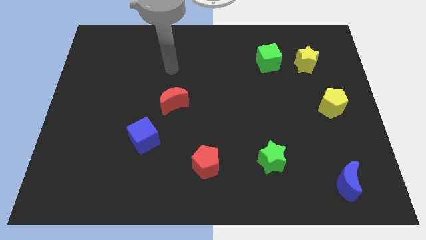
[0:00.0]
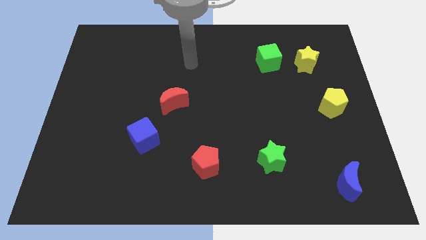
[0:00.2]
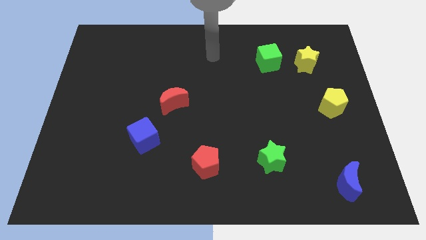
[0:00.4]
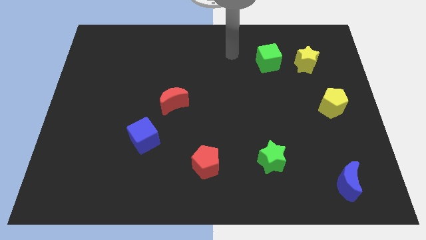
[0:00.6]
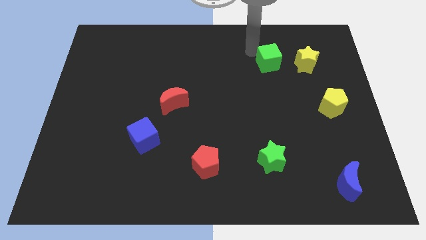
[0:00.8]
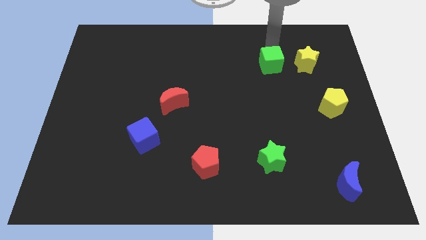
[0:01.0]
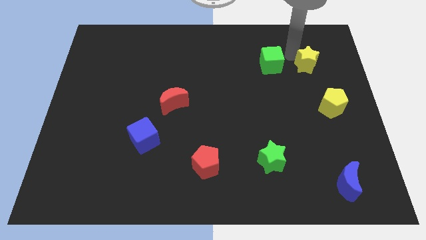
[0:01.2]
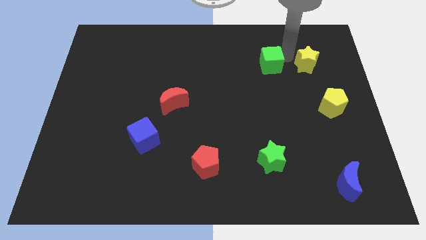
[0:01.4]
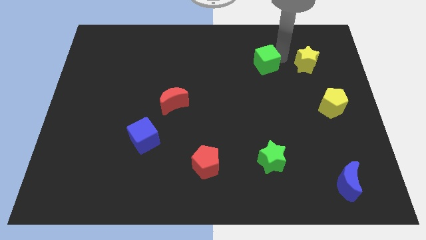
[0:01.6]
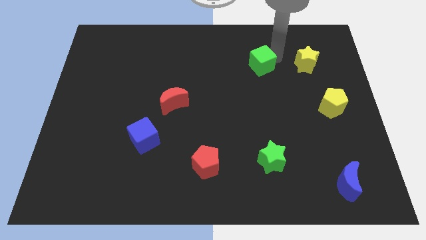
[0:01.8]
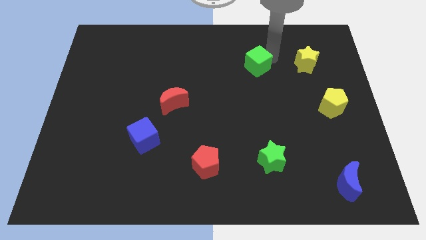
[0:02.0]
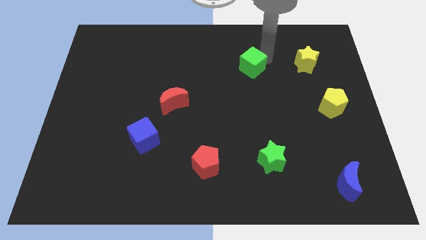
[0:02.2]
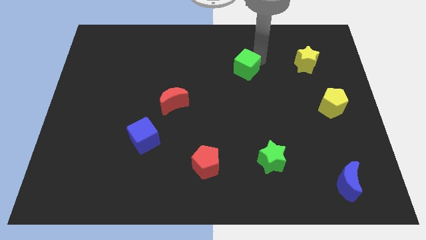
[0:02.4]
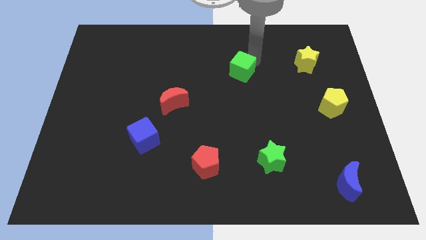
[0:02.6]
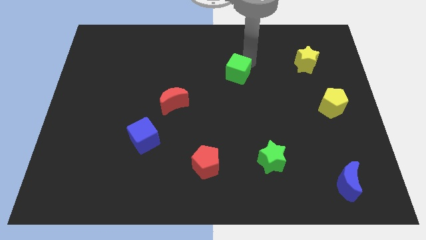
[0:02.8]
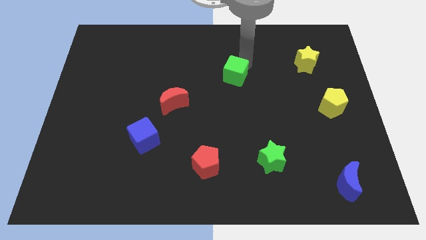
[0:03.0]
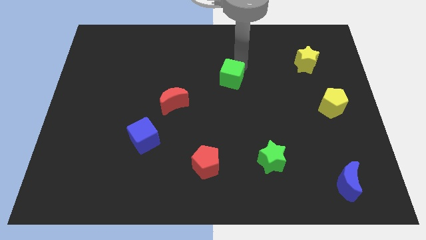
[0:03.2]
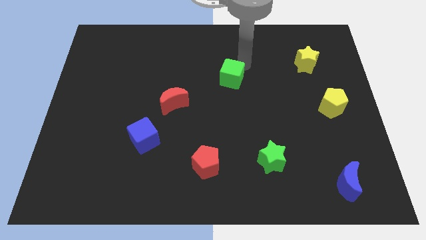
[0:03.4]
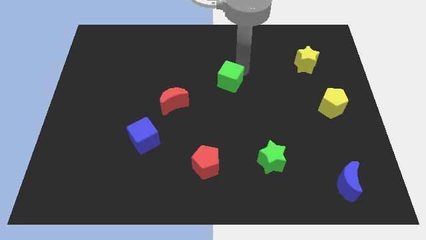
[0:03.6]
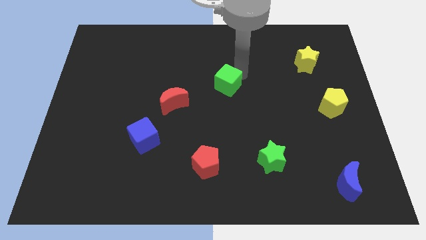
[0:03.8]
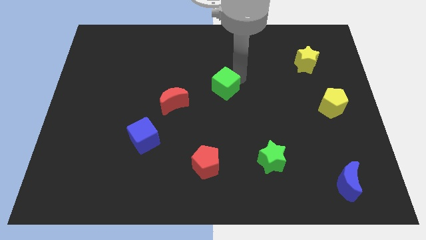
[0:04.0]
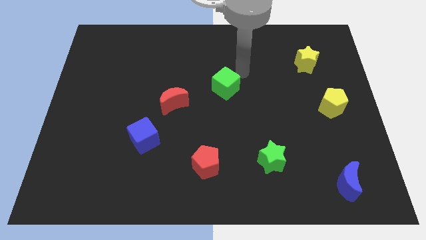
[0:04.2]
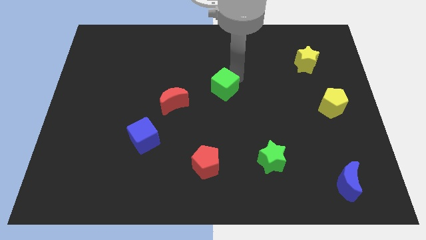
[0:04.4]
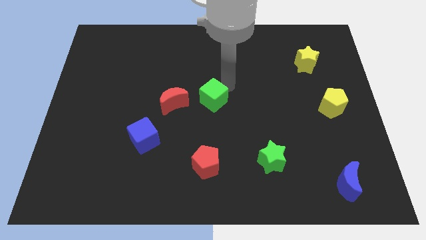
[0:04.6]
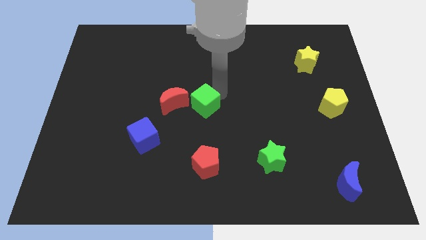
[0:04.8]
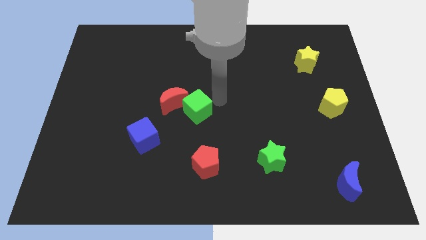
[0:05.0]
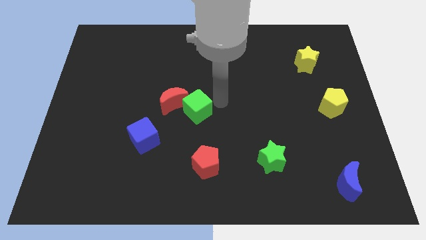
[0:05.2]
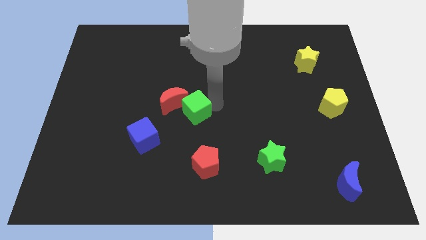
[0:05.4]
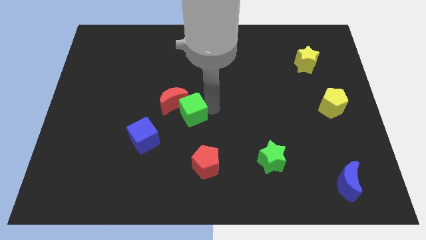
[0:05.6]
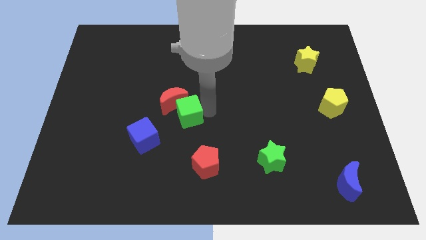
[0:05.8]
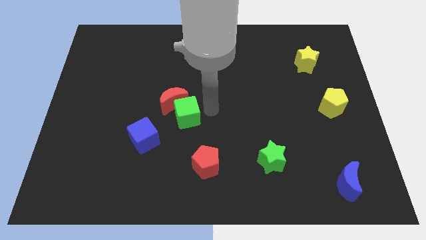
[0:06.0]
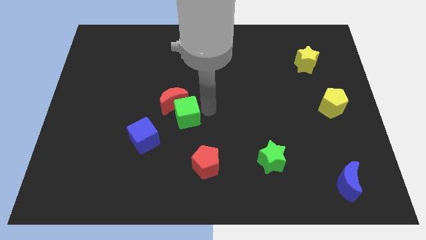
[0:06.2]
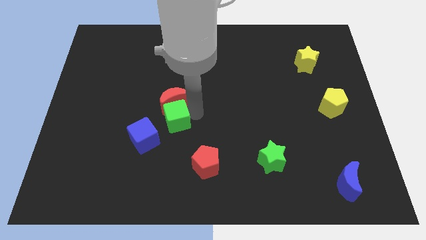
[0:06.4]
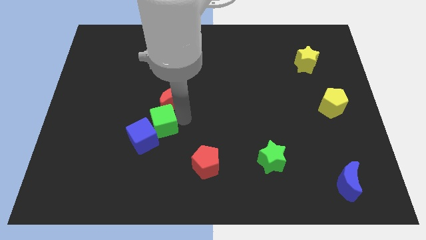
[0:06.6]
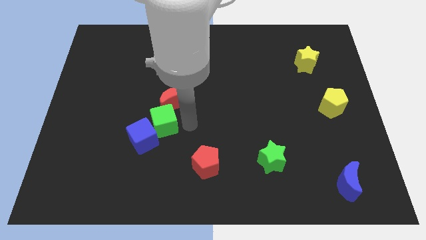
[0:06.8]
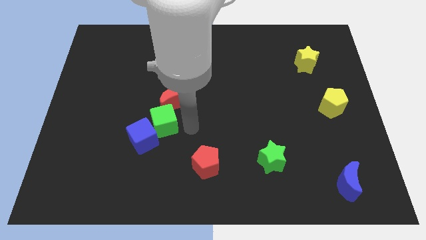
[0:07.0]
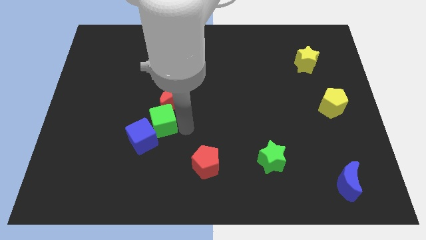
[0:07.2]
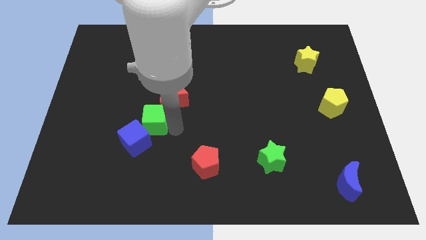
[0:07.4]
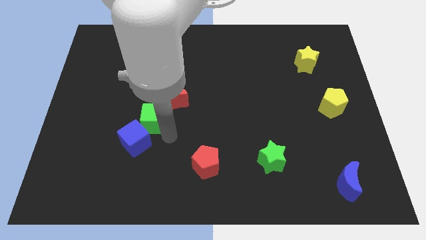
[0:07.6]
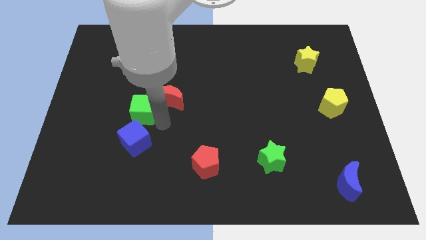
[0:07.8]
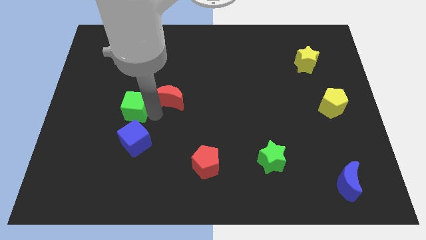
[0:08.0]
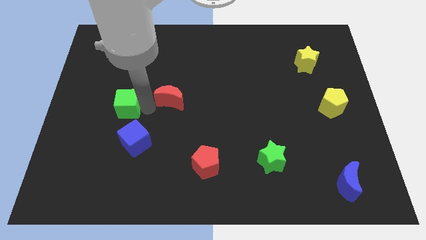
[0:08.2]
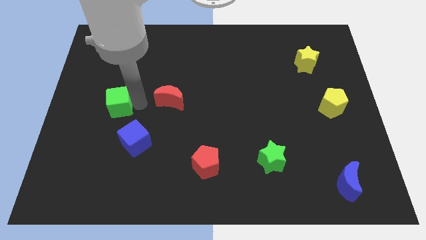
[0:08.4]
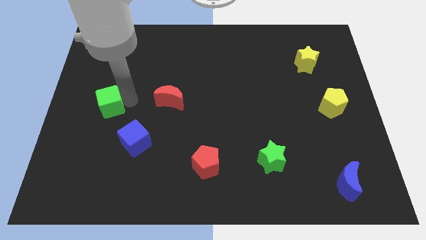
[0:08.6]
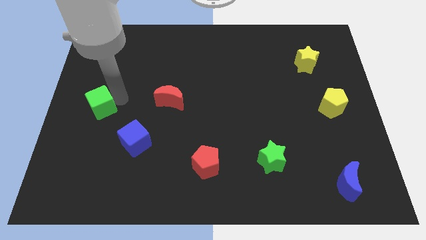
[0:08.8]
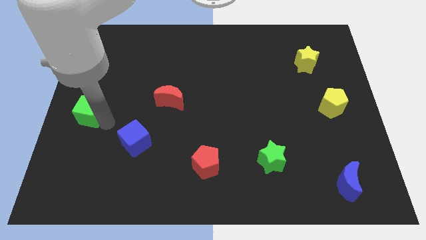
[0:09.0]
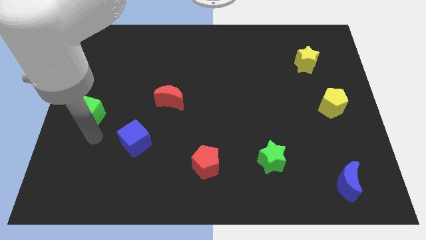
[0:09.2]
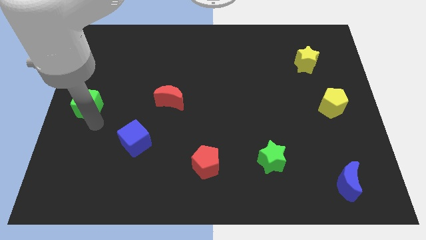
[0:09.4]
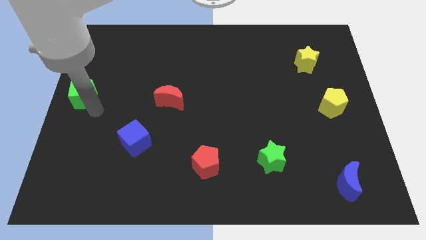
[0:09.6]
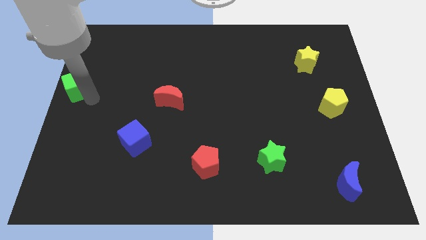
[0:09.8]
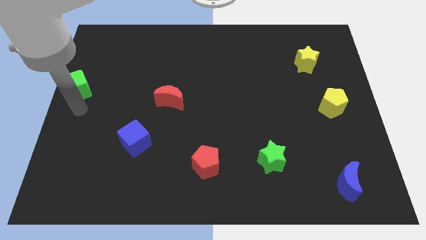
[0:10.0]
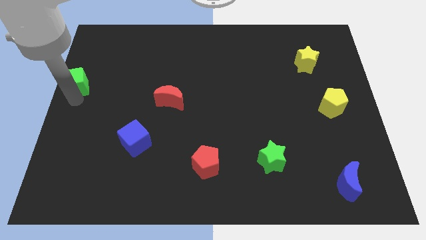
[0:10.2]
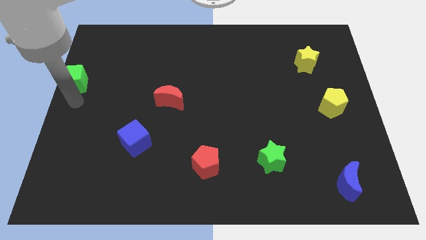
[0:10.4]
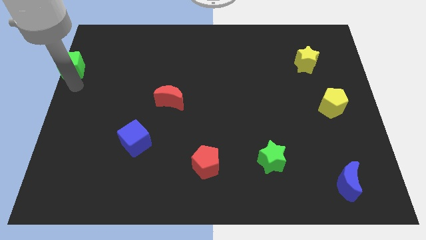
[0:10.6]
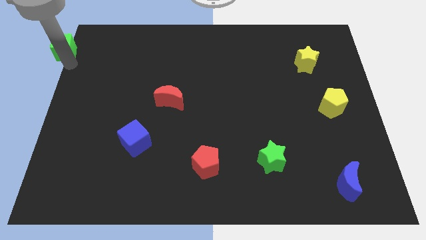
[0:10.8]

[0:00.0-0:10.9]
slide the green cube to the top left corner

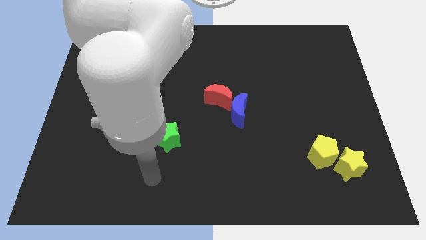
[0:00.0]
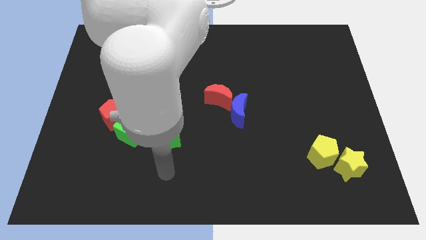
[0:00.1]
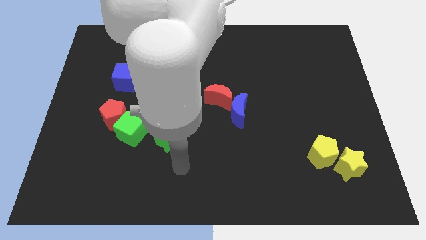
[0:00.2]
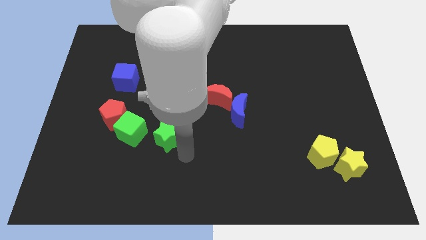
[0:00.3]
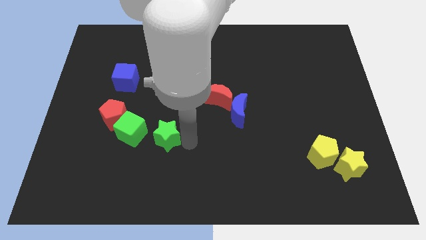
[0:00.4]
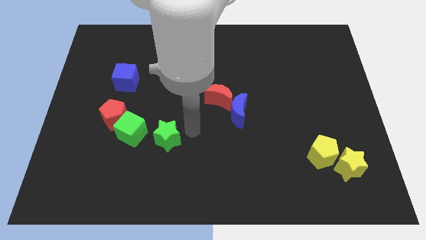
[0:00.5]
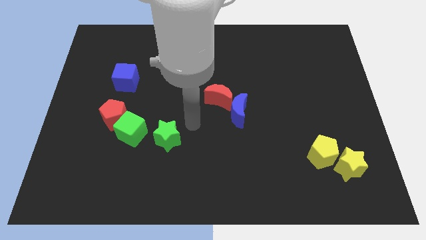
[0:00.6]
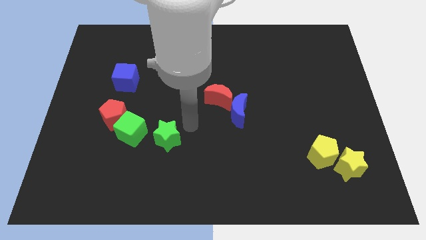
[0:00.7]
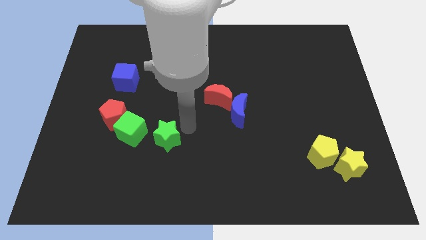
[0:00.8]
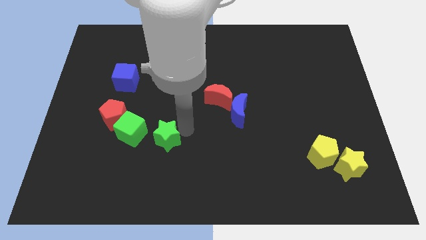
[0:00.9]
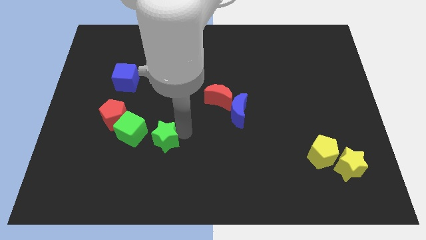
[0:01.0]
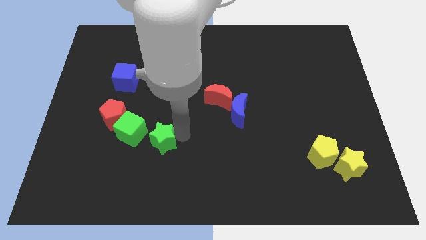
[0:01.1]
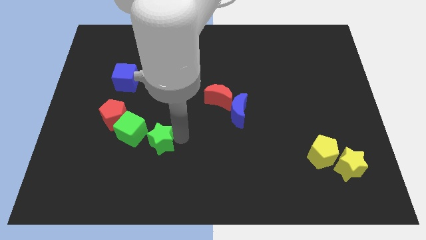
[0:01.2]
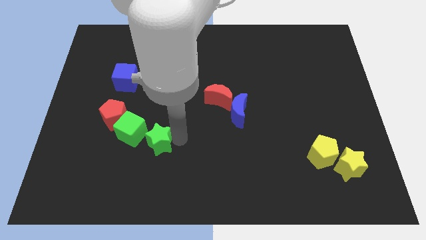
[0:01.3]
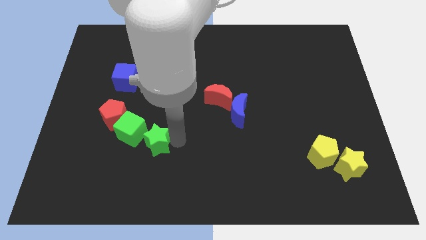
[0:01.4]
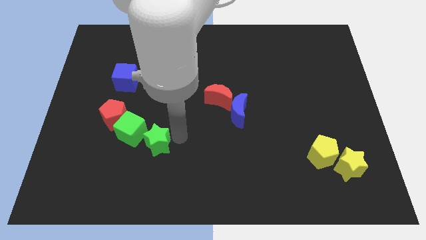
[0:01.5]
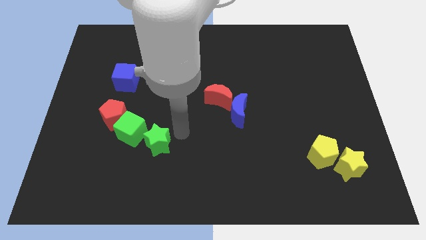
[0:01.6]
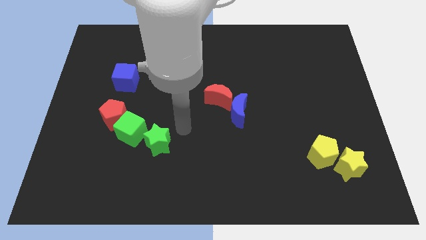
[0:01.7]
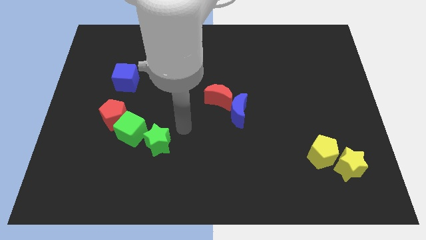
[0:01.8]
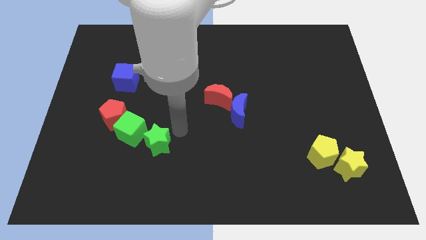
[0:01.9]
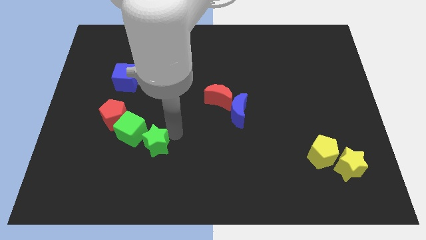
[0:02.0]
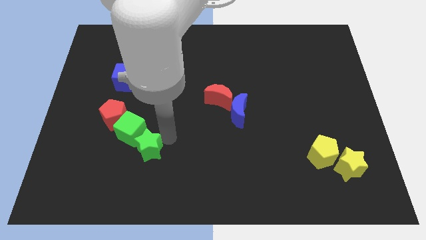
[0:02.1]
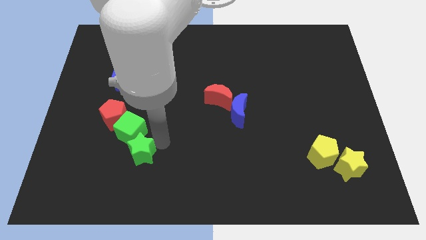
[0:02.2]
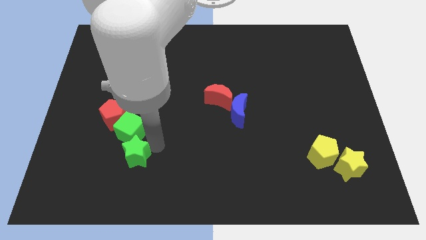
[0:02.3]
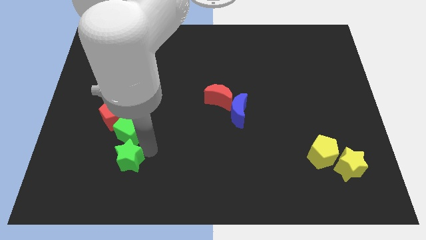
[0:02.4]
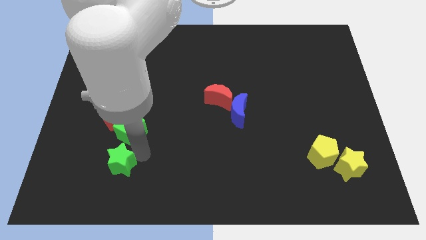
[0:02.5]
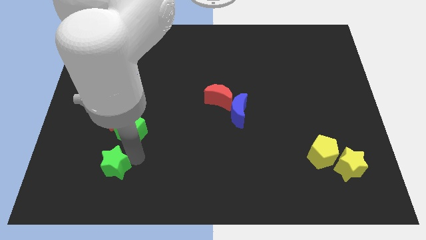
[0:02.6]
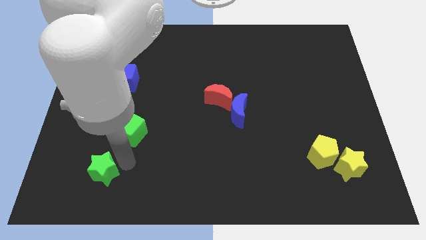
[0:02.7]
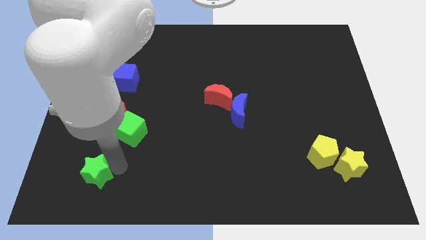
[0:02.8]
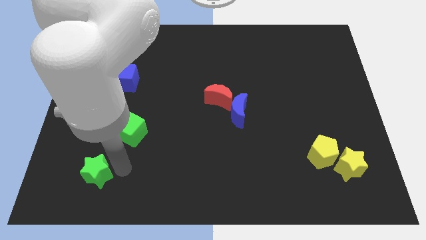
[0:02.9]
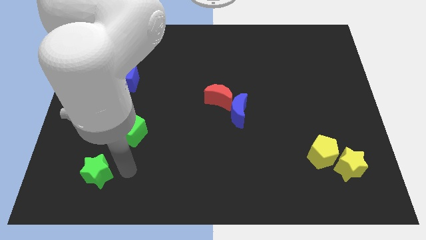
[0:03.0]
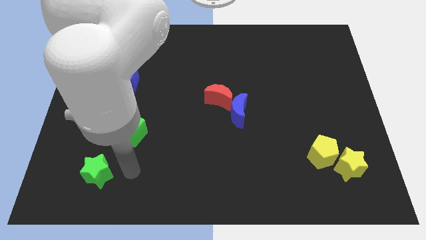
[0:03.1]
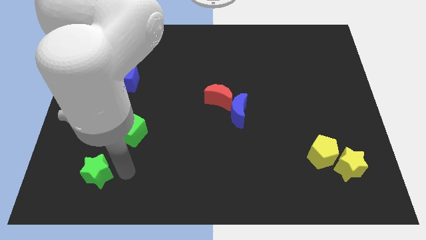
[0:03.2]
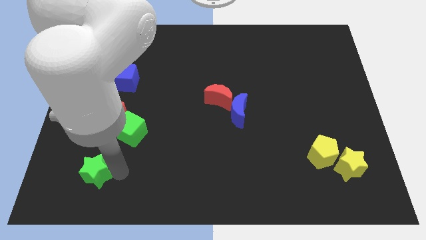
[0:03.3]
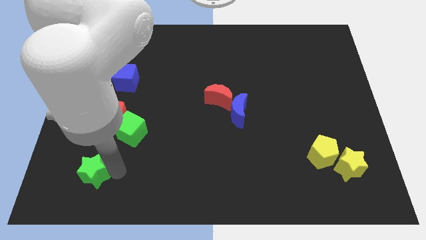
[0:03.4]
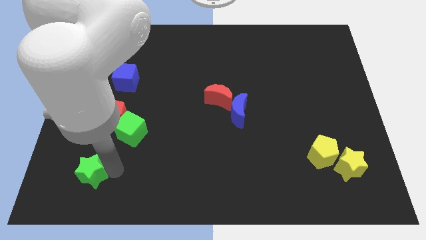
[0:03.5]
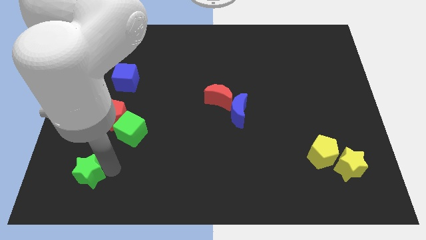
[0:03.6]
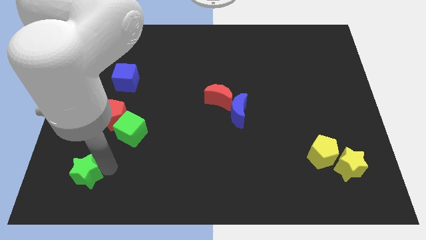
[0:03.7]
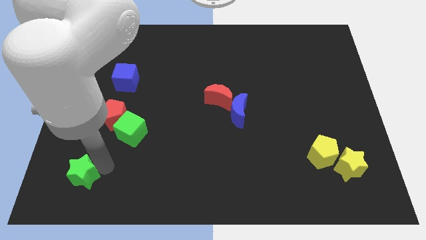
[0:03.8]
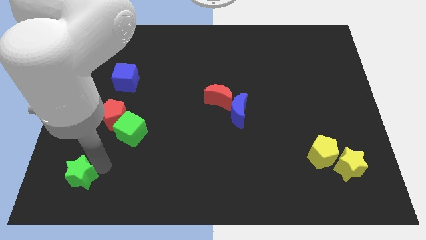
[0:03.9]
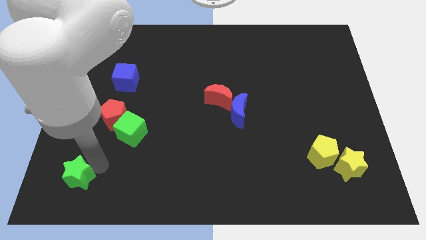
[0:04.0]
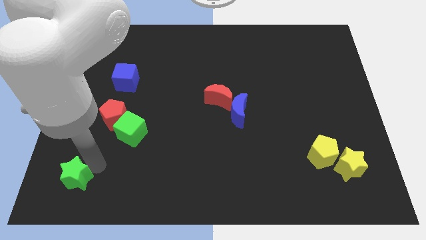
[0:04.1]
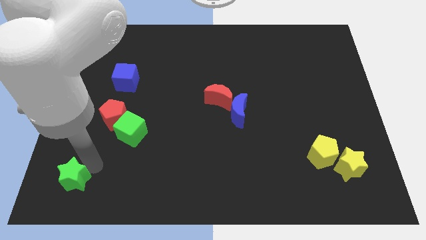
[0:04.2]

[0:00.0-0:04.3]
put the green star to the lower left corner
